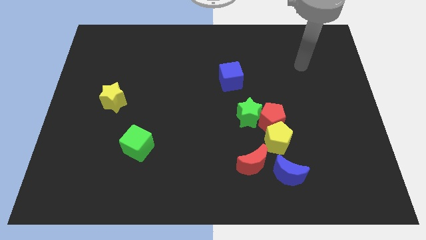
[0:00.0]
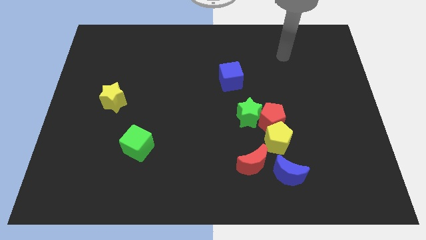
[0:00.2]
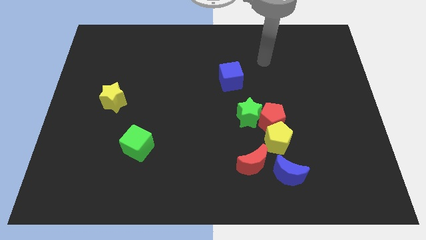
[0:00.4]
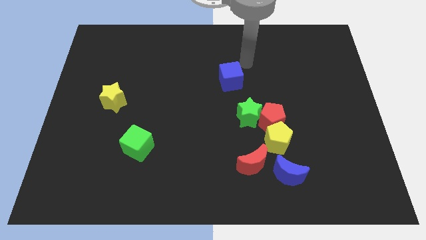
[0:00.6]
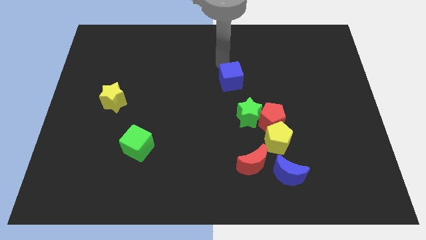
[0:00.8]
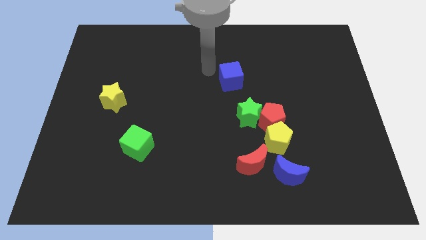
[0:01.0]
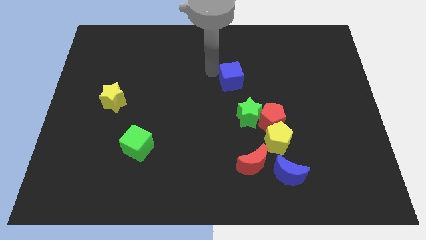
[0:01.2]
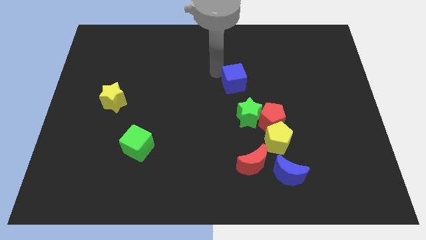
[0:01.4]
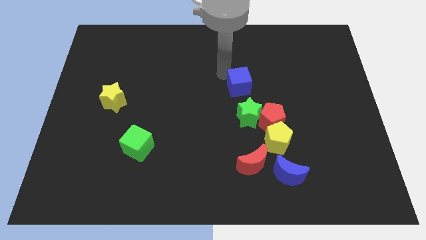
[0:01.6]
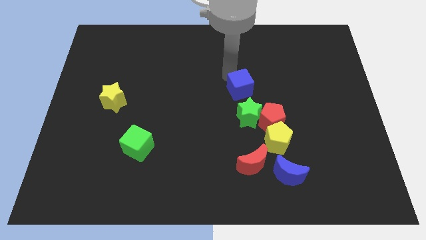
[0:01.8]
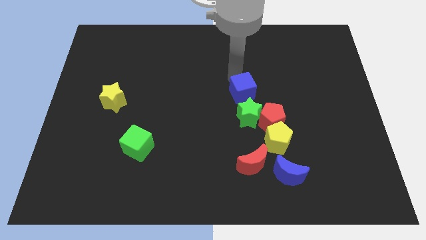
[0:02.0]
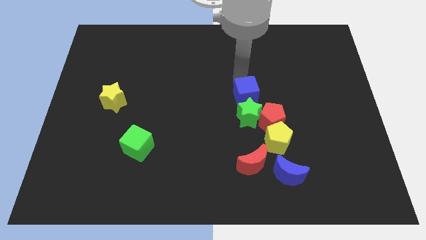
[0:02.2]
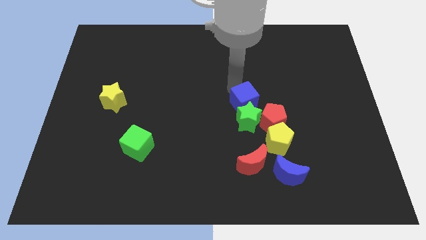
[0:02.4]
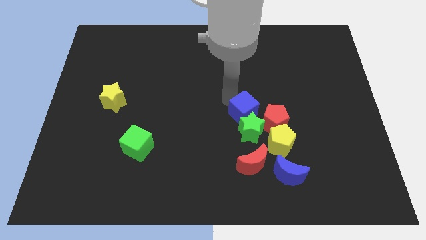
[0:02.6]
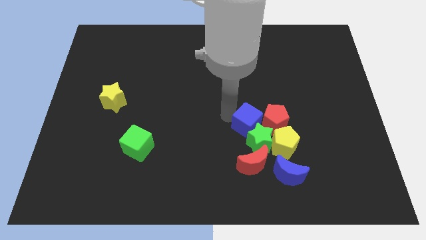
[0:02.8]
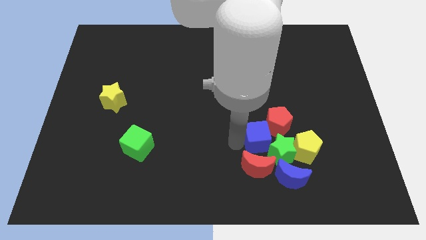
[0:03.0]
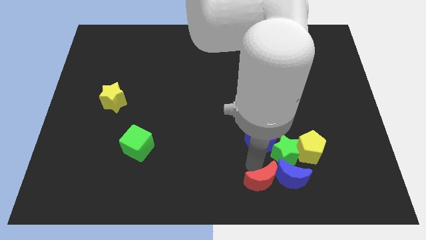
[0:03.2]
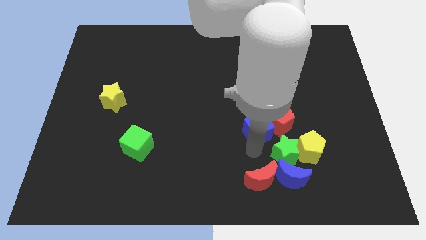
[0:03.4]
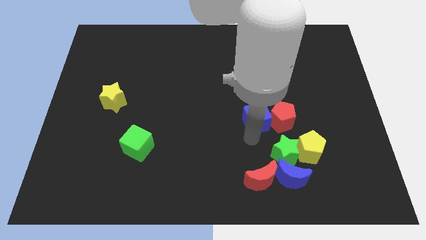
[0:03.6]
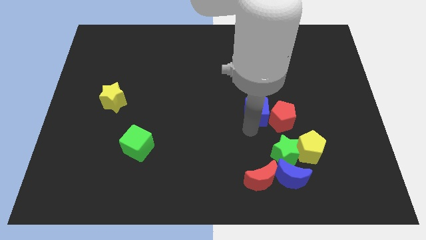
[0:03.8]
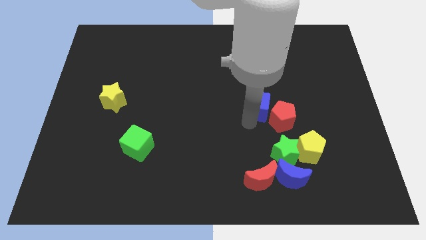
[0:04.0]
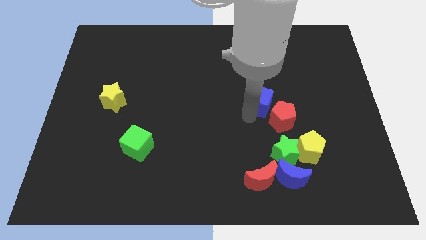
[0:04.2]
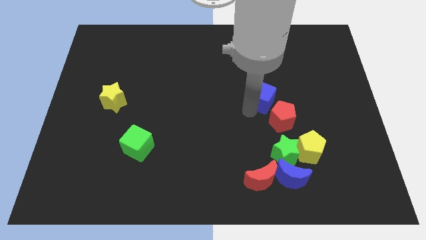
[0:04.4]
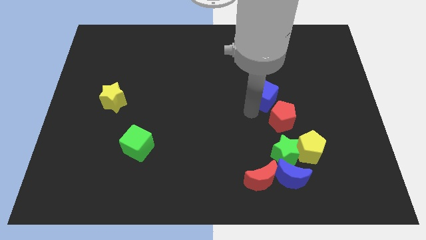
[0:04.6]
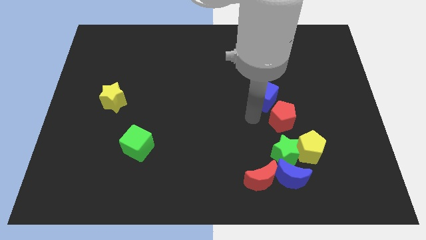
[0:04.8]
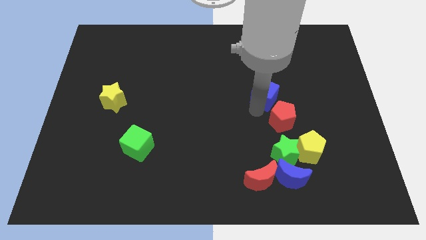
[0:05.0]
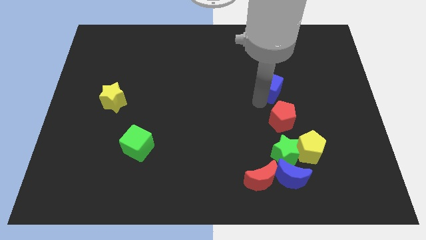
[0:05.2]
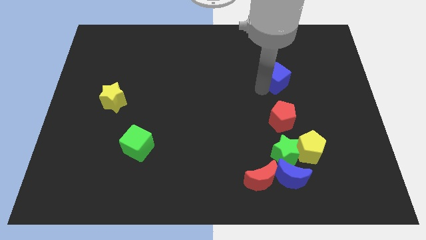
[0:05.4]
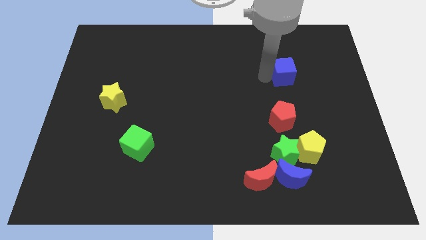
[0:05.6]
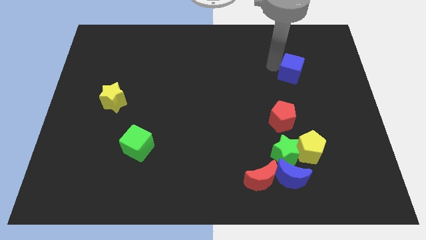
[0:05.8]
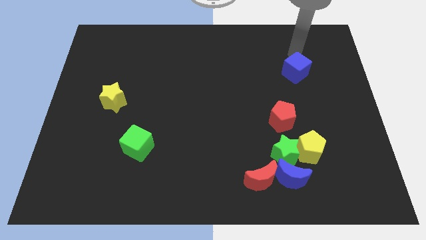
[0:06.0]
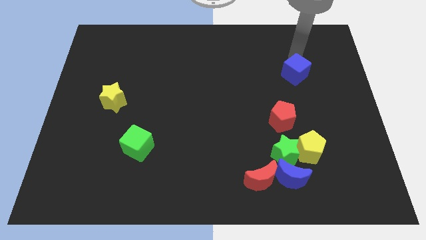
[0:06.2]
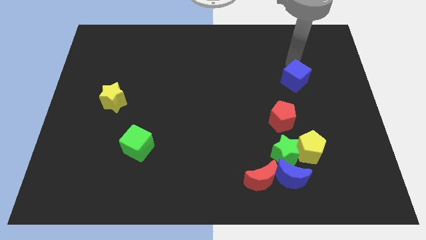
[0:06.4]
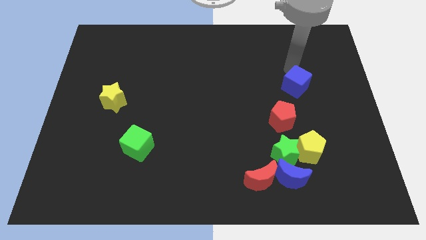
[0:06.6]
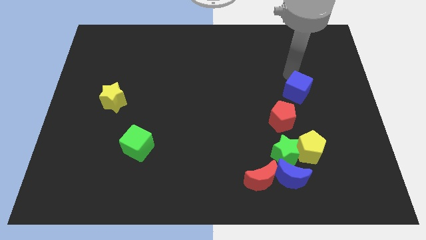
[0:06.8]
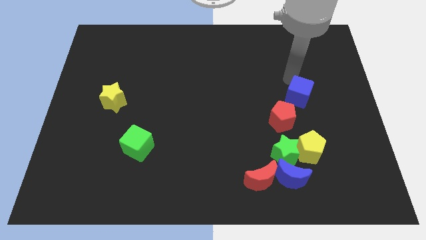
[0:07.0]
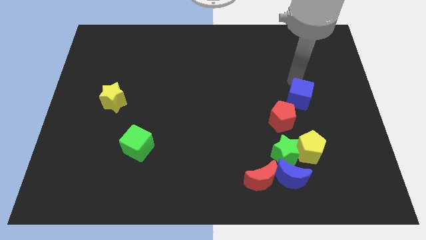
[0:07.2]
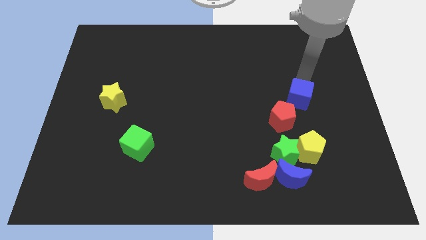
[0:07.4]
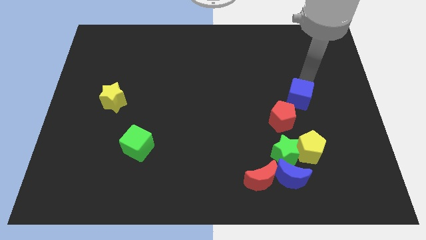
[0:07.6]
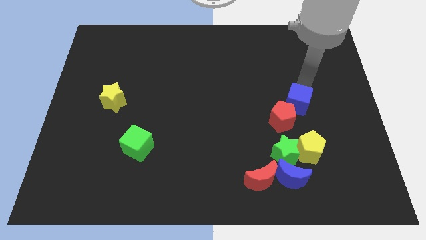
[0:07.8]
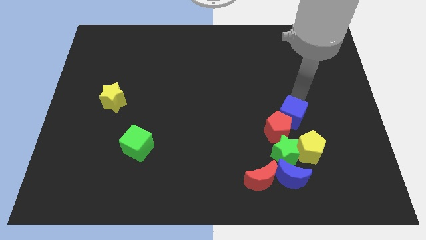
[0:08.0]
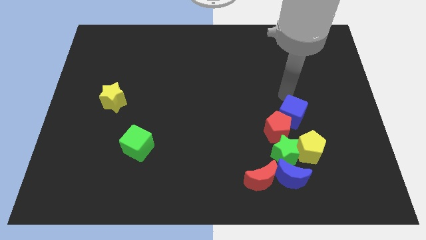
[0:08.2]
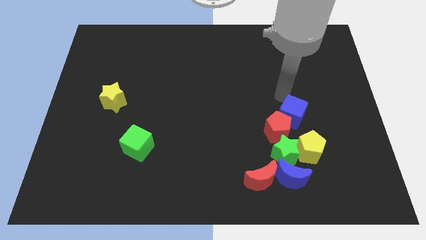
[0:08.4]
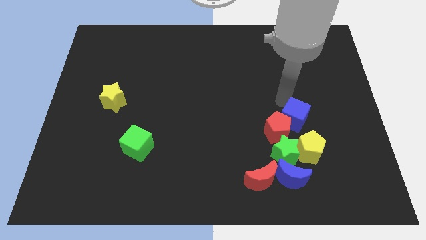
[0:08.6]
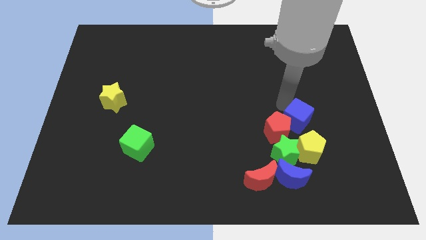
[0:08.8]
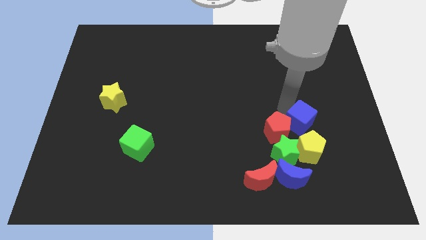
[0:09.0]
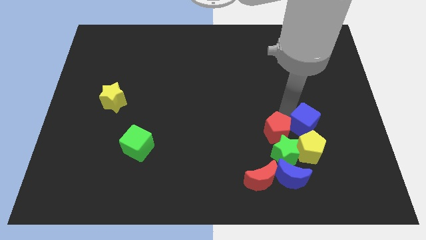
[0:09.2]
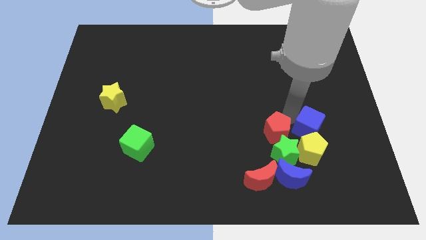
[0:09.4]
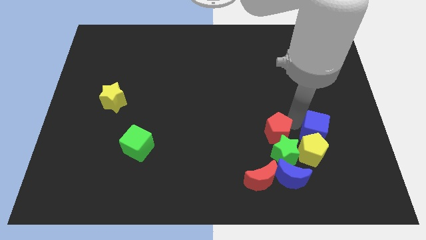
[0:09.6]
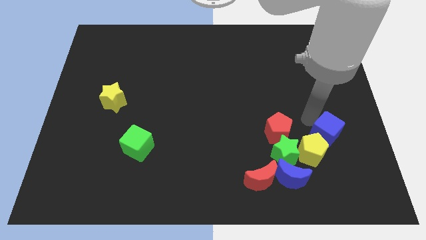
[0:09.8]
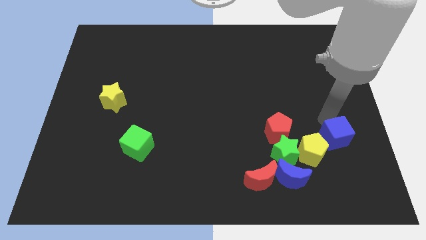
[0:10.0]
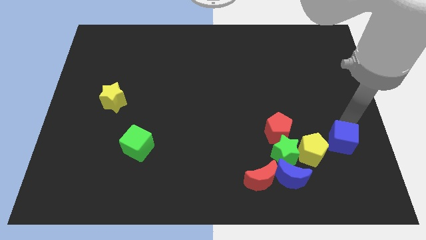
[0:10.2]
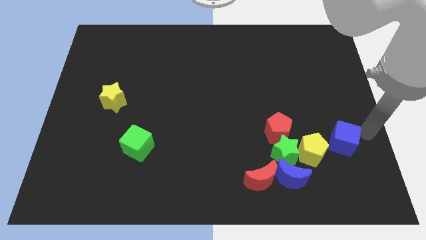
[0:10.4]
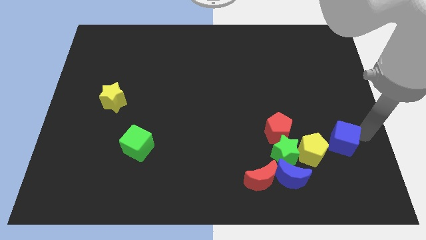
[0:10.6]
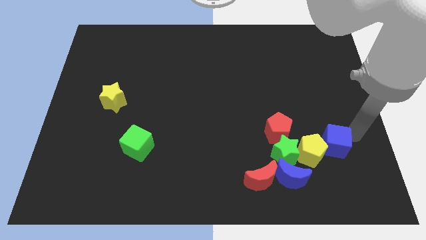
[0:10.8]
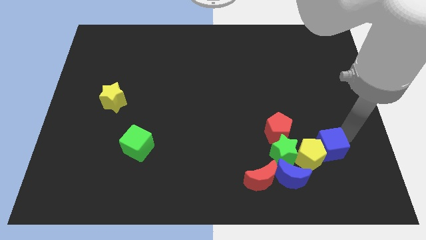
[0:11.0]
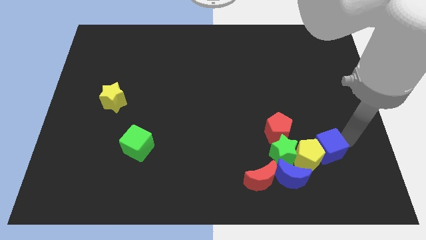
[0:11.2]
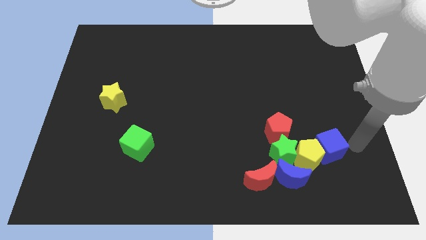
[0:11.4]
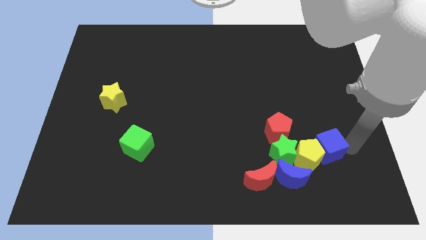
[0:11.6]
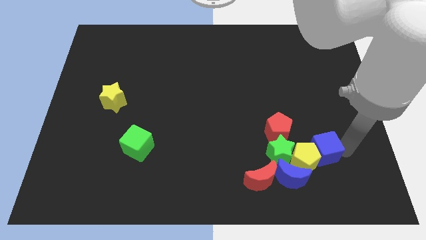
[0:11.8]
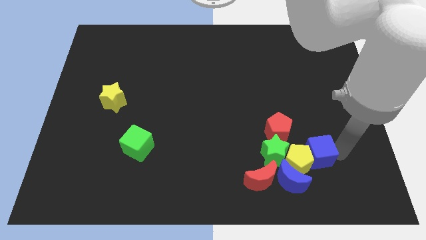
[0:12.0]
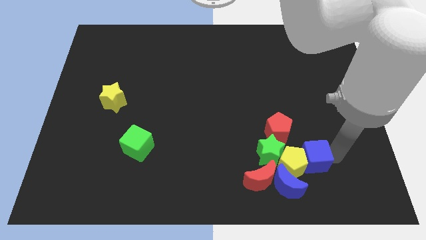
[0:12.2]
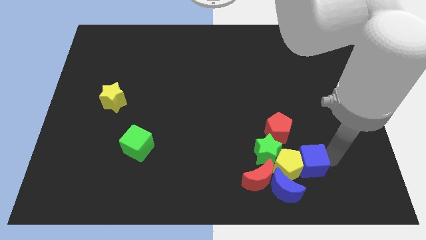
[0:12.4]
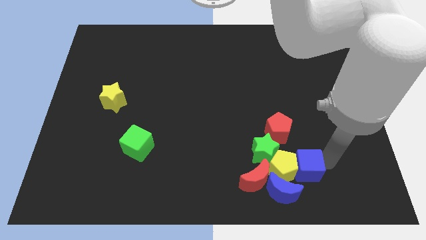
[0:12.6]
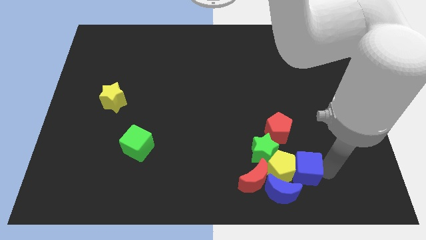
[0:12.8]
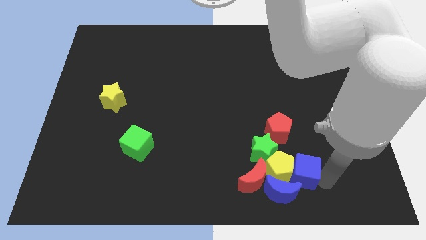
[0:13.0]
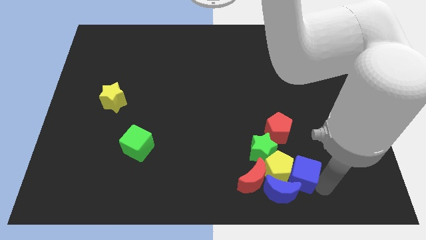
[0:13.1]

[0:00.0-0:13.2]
slide the blue cube towards the blue moon

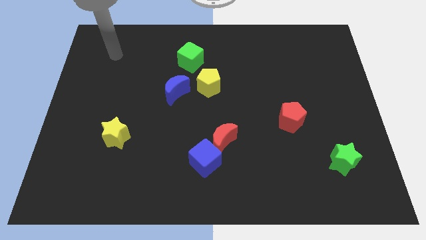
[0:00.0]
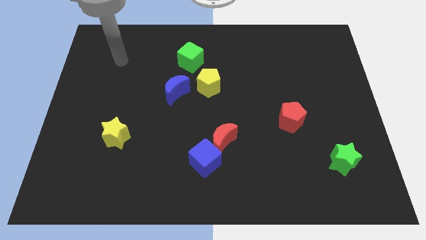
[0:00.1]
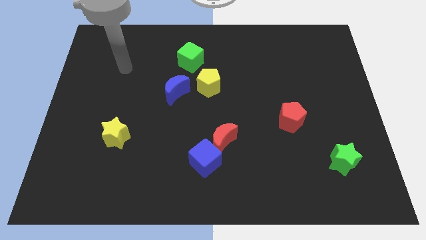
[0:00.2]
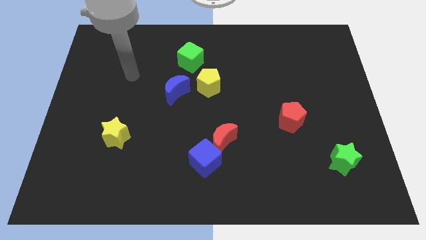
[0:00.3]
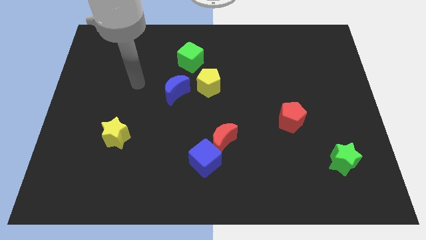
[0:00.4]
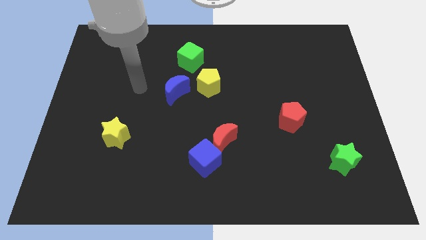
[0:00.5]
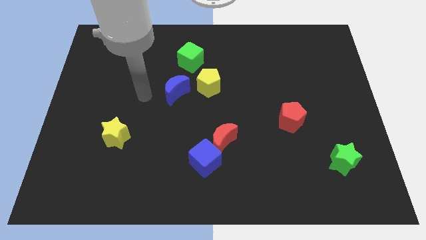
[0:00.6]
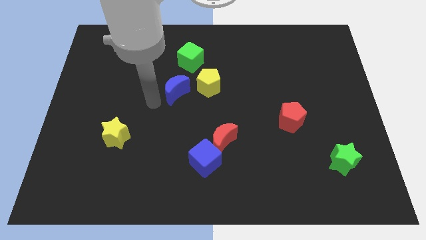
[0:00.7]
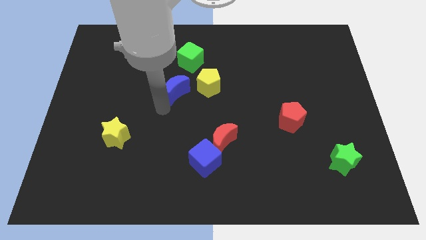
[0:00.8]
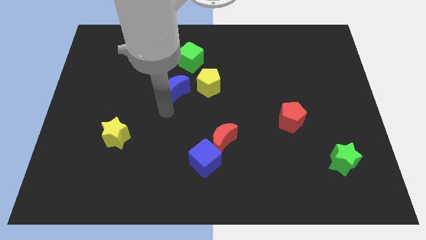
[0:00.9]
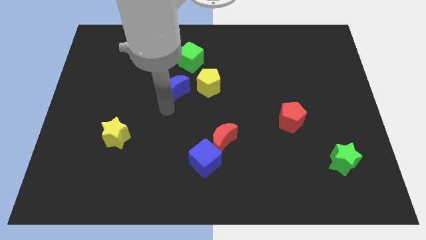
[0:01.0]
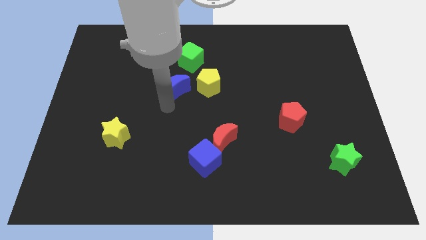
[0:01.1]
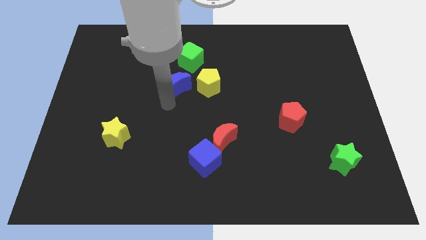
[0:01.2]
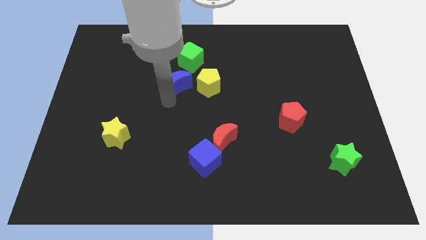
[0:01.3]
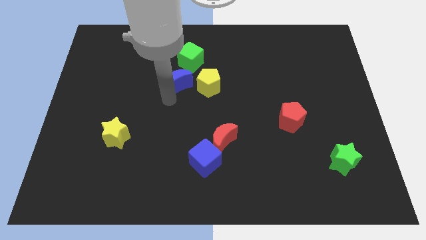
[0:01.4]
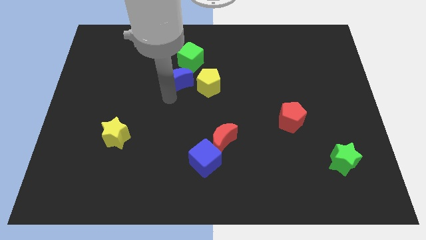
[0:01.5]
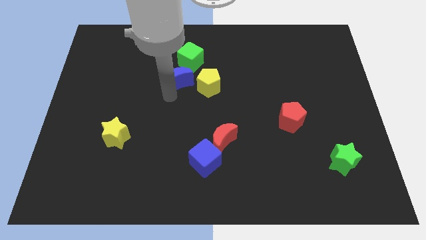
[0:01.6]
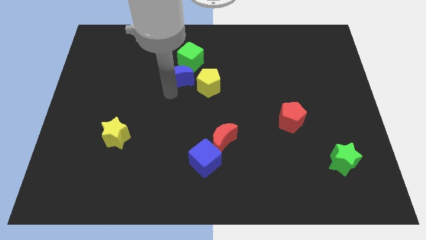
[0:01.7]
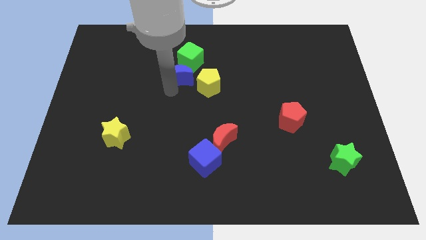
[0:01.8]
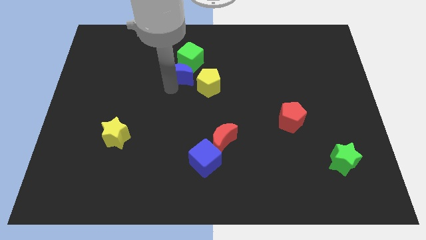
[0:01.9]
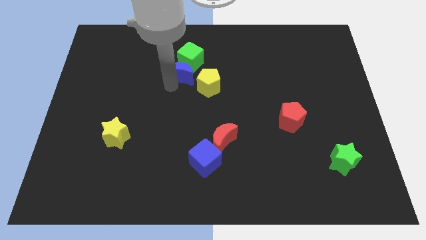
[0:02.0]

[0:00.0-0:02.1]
put the blue moon towards the green cube
